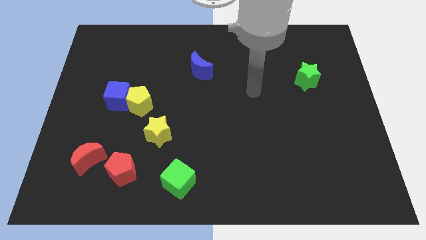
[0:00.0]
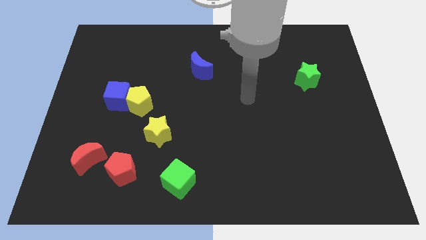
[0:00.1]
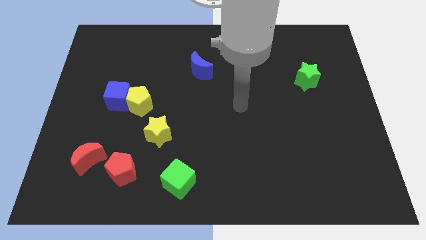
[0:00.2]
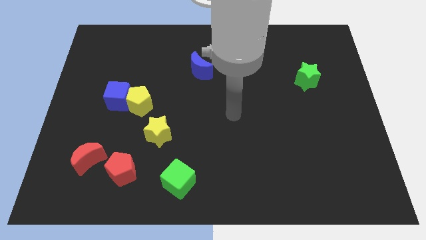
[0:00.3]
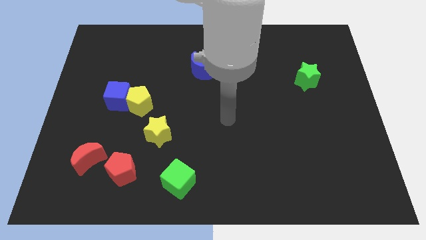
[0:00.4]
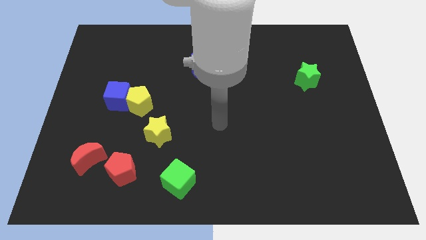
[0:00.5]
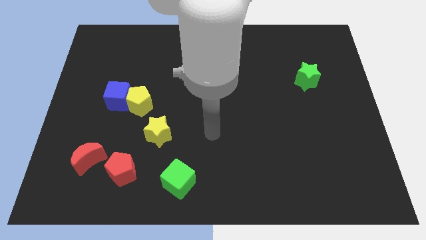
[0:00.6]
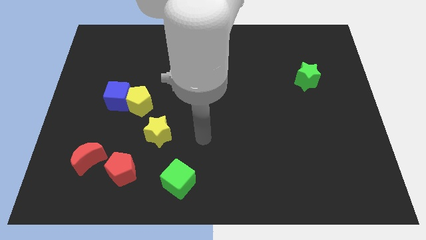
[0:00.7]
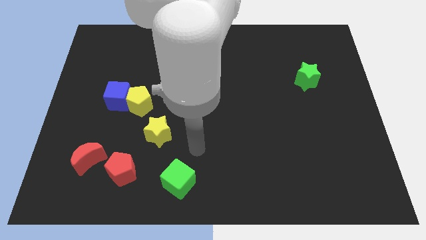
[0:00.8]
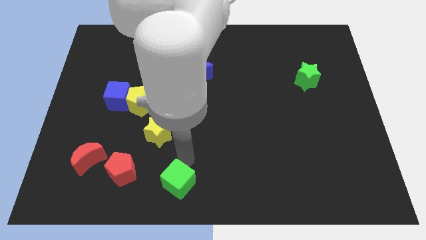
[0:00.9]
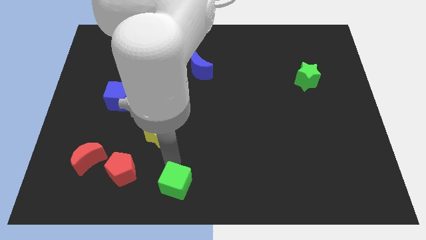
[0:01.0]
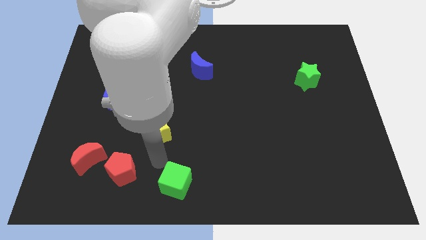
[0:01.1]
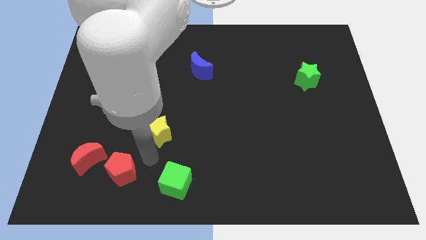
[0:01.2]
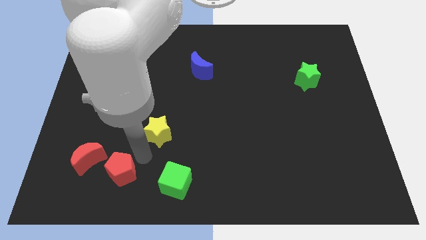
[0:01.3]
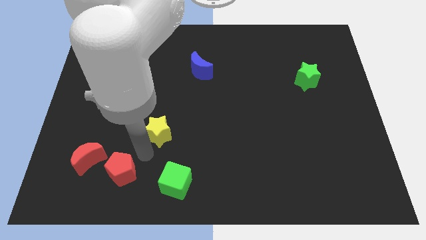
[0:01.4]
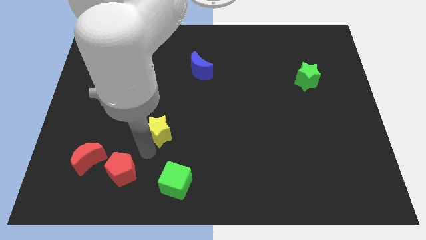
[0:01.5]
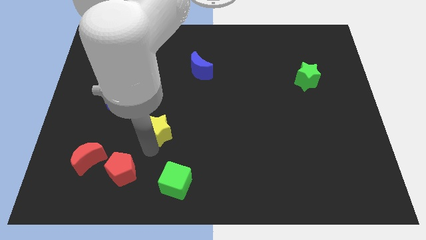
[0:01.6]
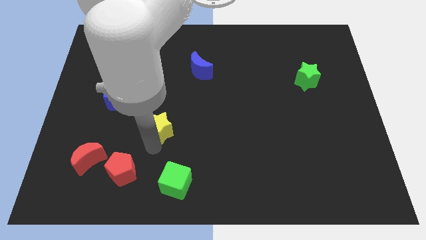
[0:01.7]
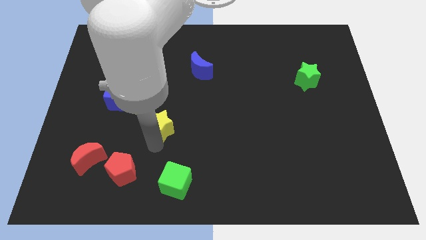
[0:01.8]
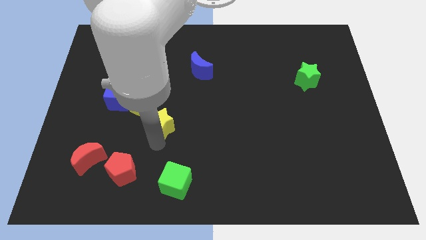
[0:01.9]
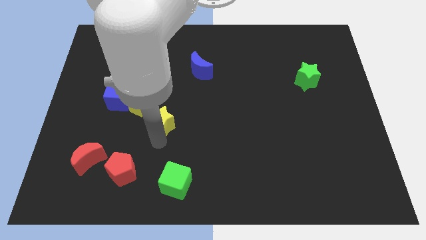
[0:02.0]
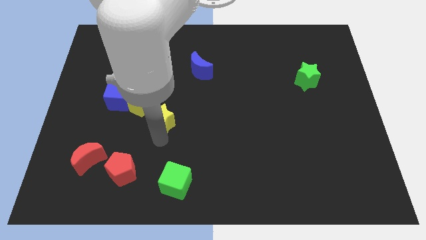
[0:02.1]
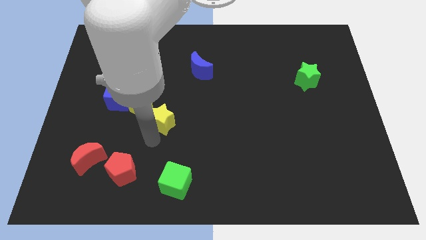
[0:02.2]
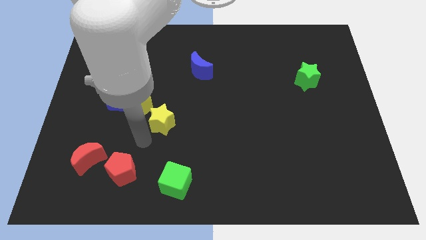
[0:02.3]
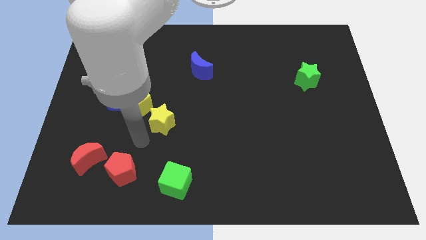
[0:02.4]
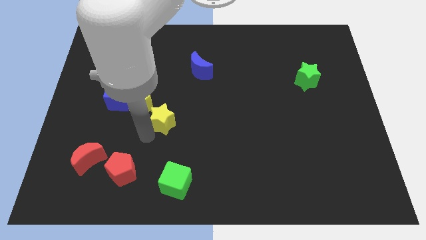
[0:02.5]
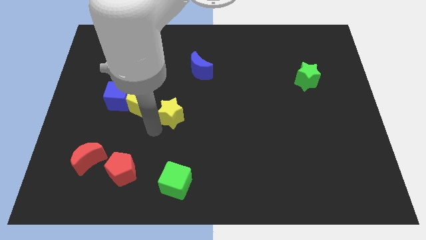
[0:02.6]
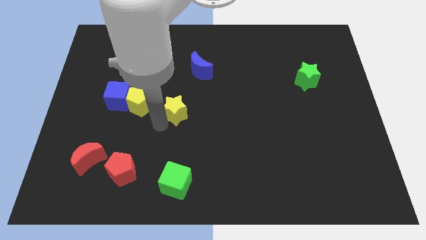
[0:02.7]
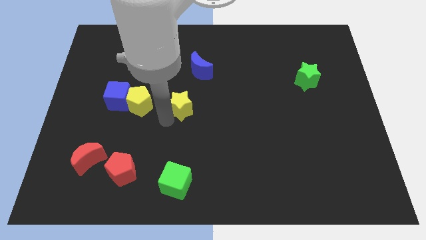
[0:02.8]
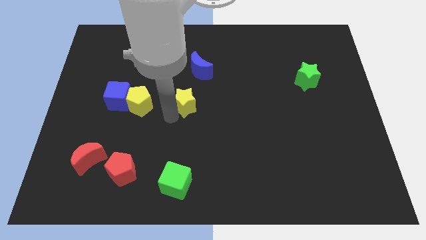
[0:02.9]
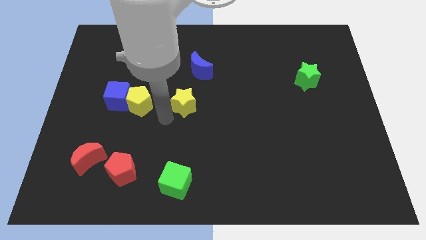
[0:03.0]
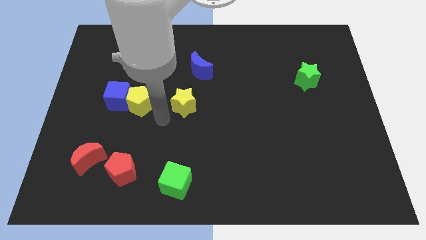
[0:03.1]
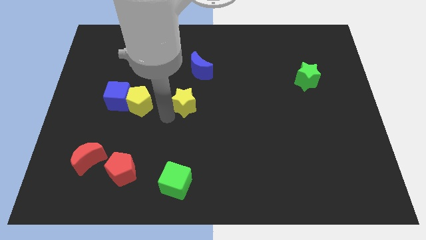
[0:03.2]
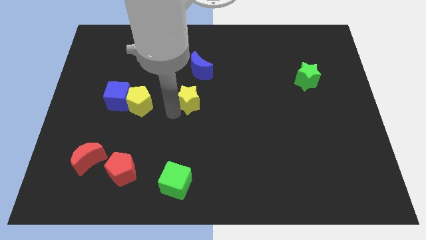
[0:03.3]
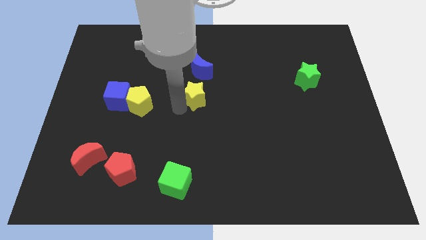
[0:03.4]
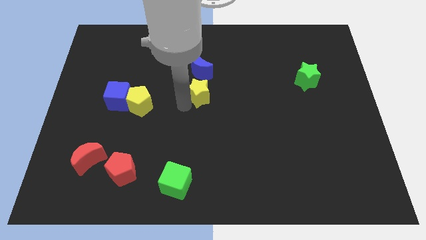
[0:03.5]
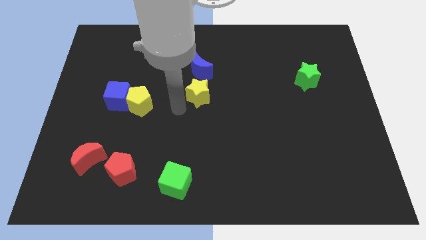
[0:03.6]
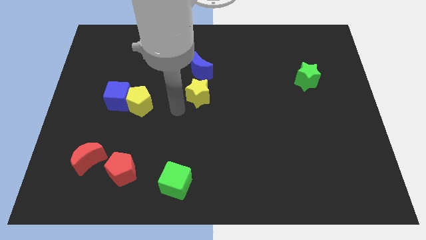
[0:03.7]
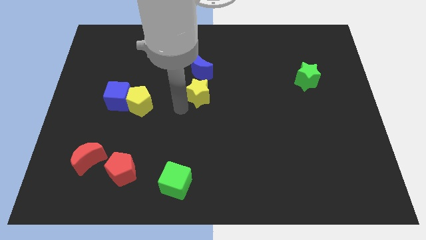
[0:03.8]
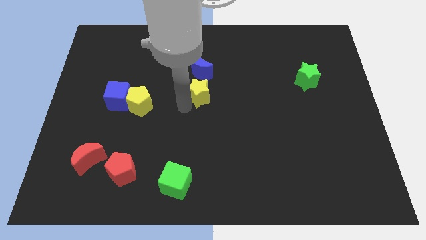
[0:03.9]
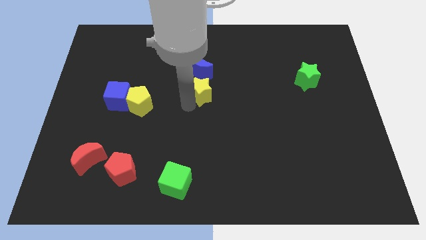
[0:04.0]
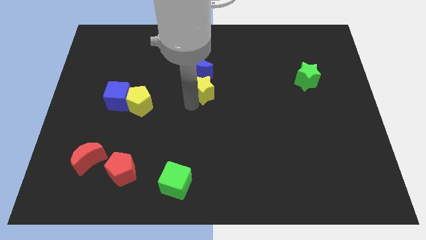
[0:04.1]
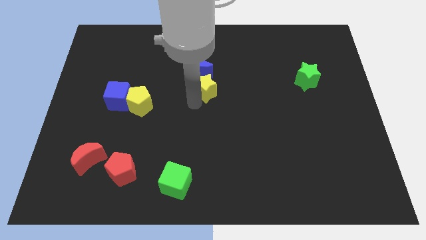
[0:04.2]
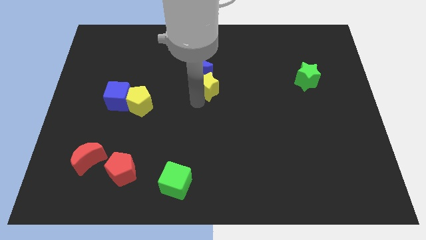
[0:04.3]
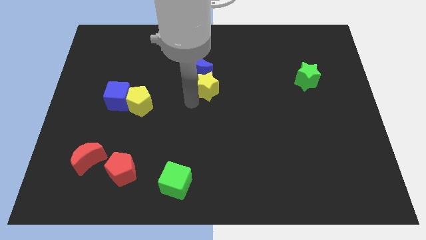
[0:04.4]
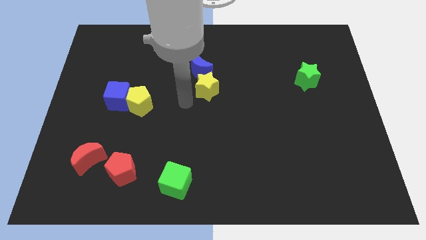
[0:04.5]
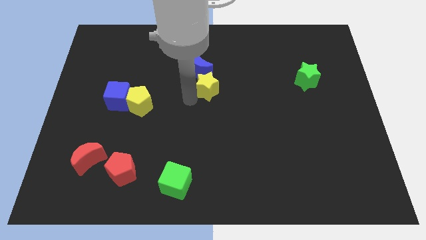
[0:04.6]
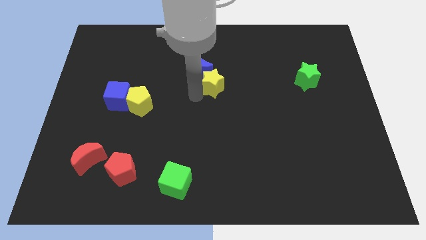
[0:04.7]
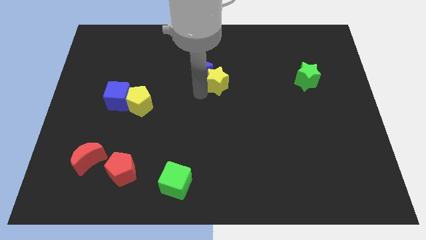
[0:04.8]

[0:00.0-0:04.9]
push the yellow star upwards and right

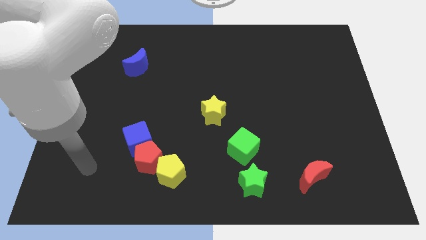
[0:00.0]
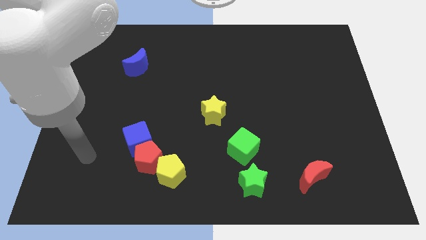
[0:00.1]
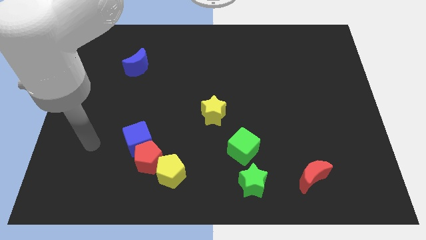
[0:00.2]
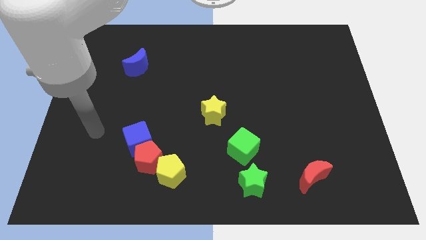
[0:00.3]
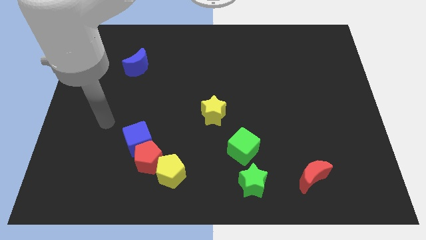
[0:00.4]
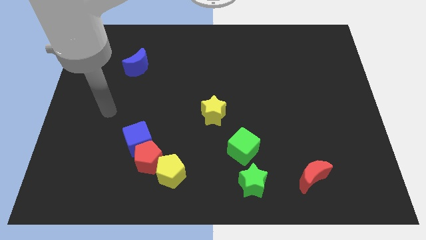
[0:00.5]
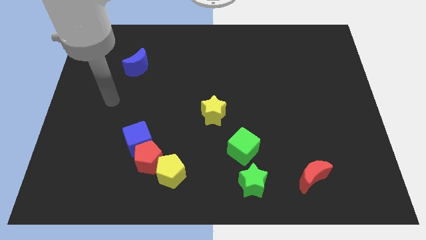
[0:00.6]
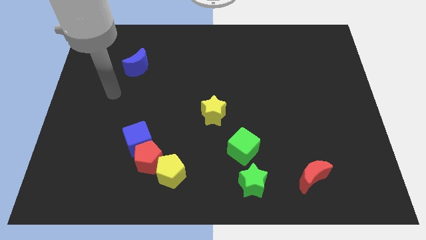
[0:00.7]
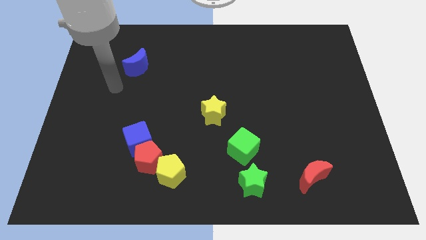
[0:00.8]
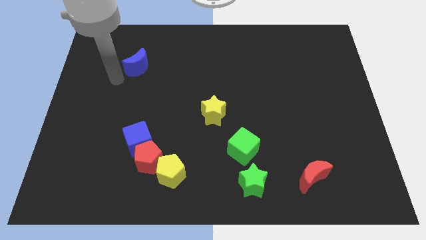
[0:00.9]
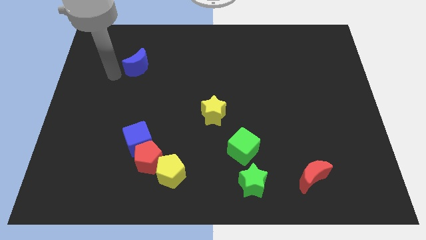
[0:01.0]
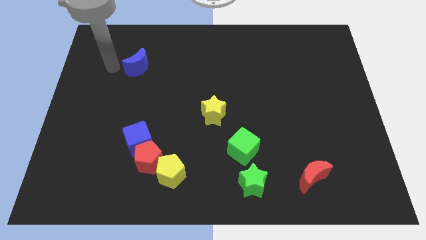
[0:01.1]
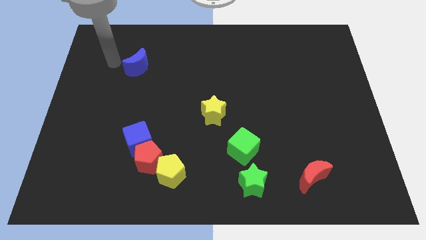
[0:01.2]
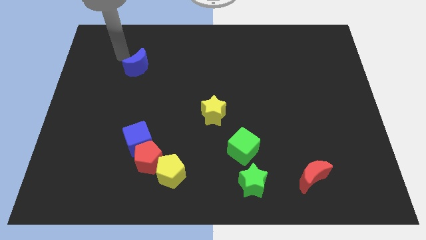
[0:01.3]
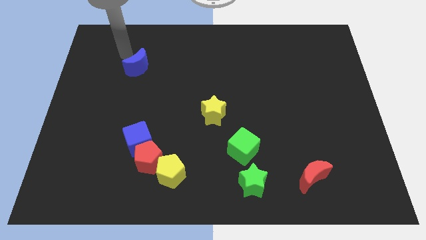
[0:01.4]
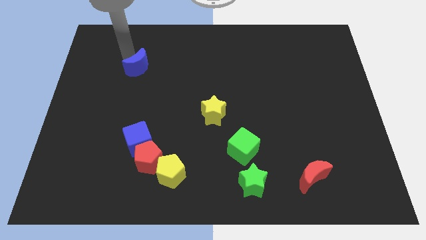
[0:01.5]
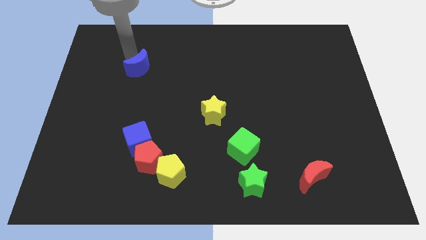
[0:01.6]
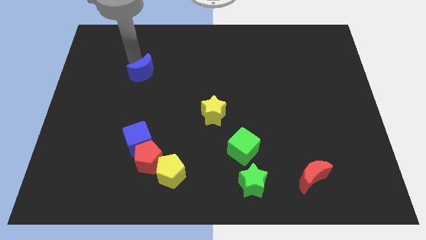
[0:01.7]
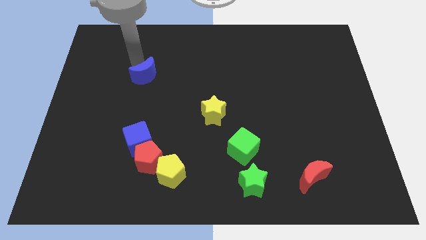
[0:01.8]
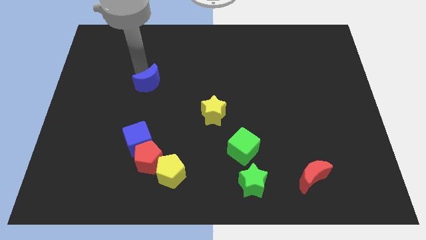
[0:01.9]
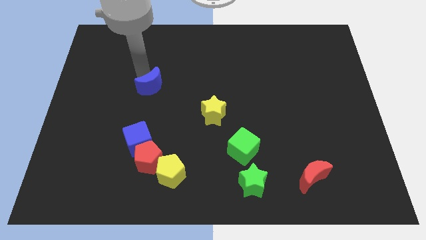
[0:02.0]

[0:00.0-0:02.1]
push the blue moon down and to the right diagonally a little

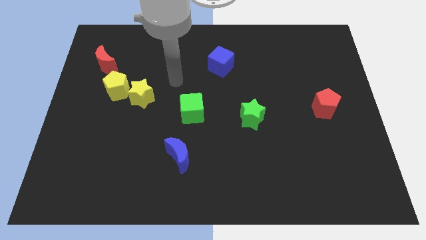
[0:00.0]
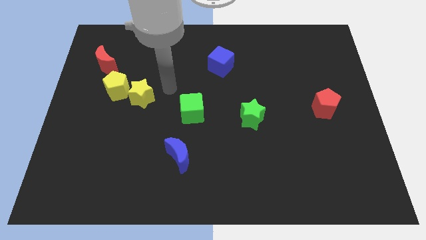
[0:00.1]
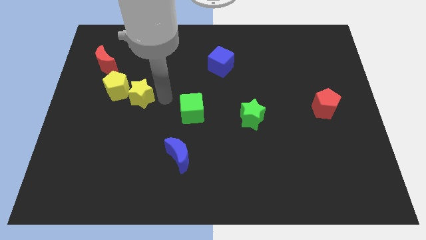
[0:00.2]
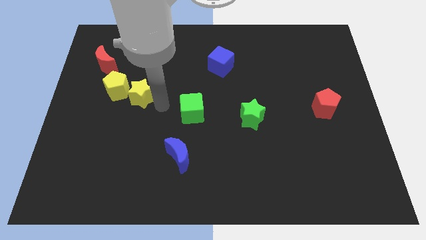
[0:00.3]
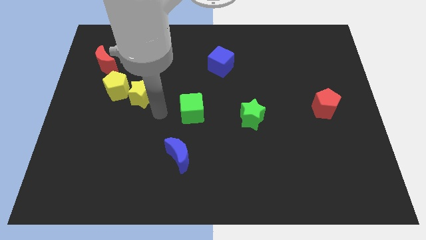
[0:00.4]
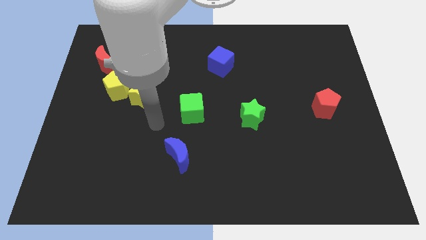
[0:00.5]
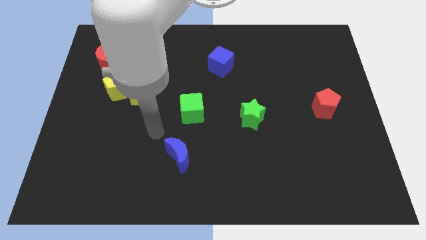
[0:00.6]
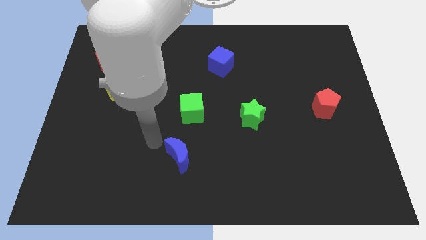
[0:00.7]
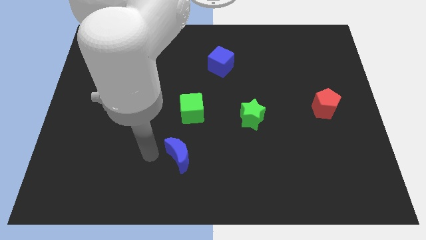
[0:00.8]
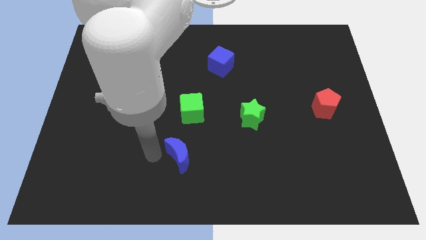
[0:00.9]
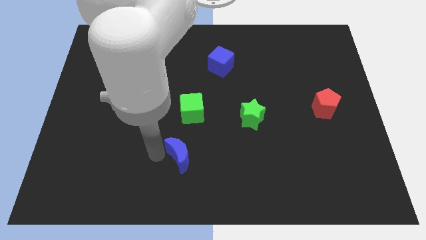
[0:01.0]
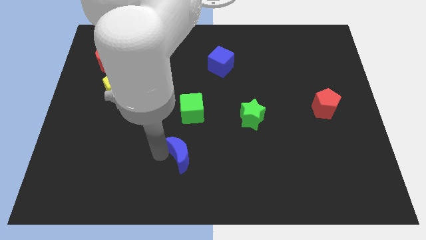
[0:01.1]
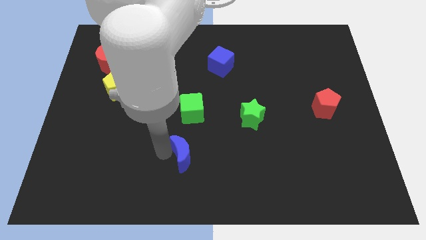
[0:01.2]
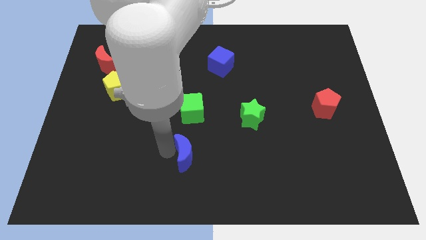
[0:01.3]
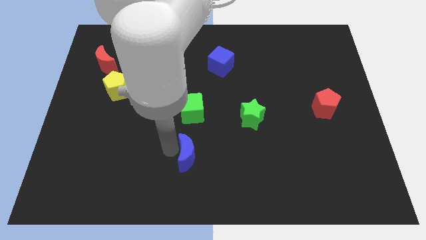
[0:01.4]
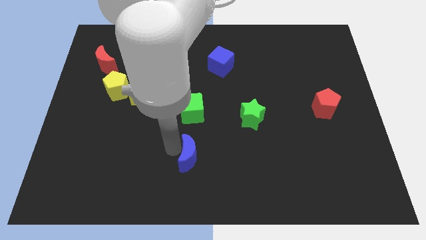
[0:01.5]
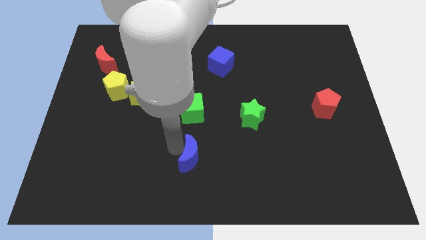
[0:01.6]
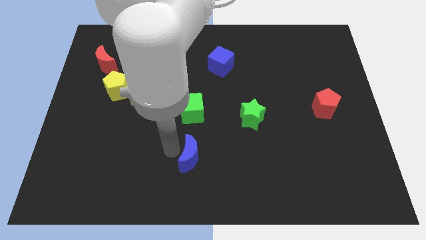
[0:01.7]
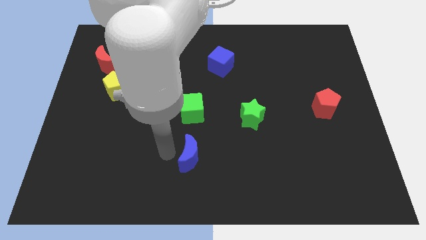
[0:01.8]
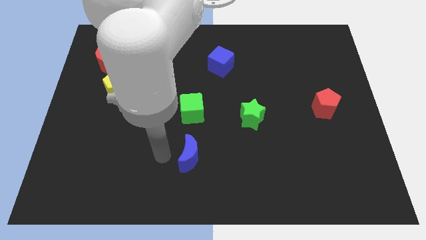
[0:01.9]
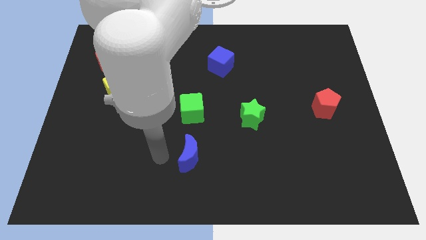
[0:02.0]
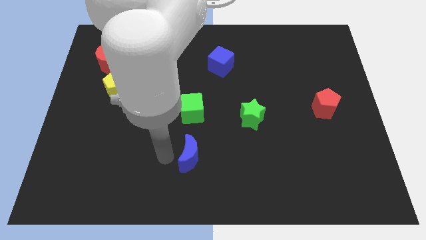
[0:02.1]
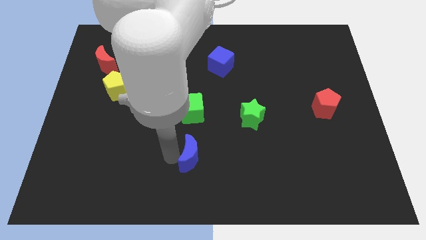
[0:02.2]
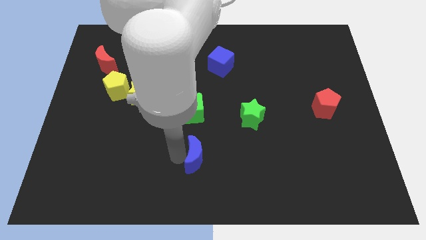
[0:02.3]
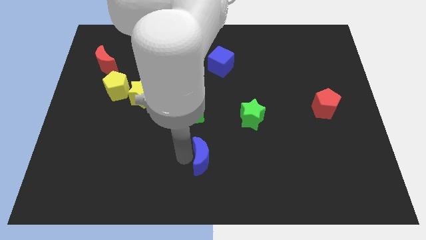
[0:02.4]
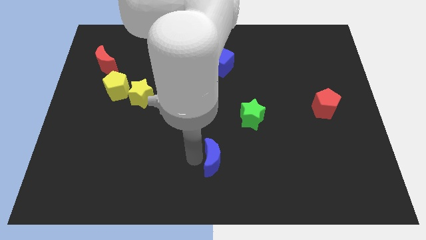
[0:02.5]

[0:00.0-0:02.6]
slightly push the blue moon right
